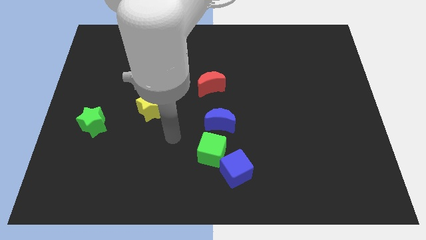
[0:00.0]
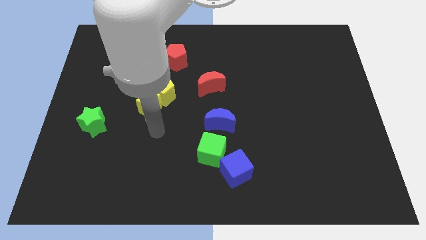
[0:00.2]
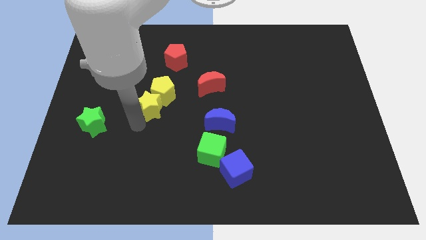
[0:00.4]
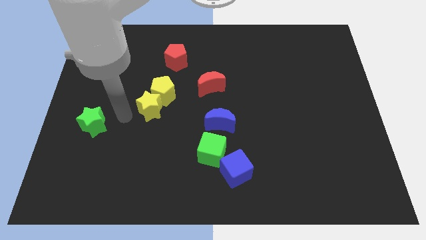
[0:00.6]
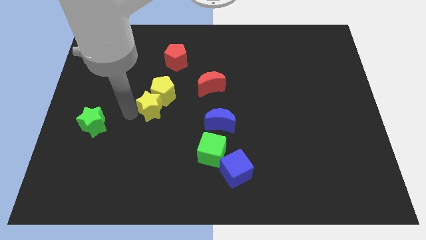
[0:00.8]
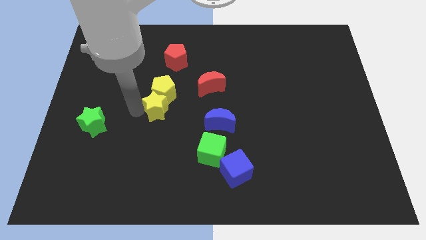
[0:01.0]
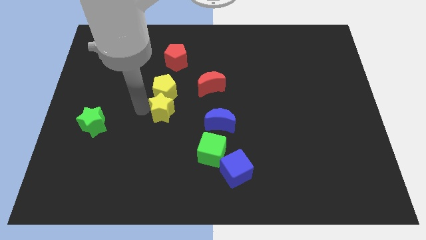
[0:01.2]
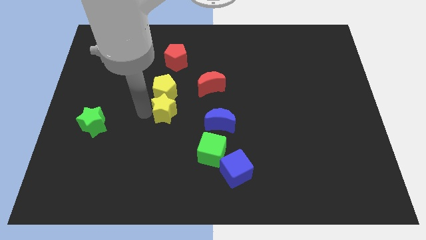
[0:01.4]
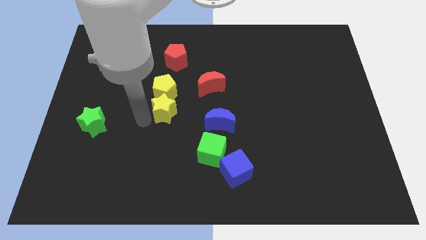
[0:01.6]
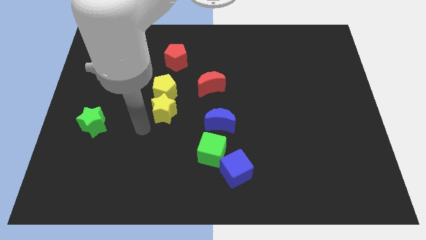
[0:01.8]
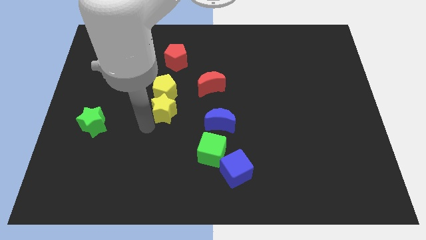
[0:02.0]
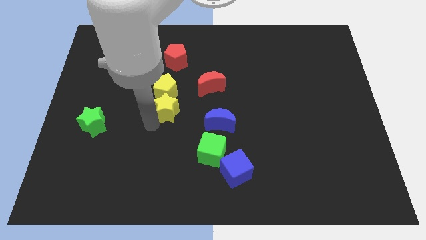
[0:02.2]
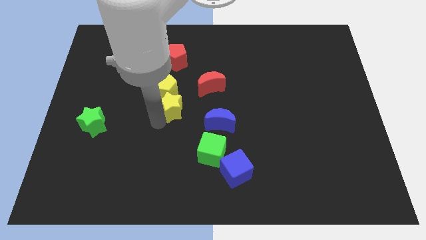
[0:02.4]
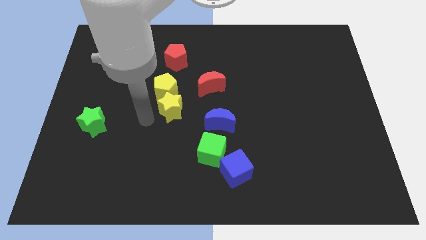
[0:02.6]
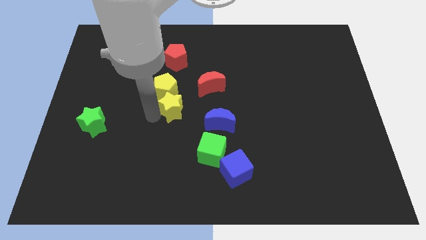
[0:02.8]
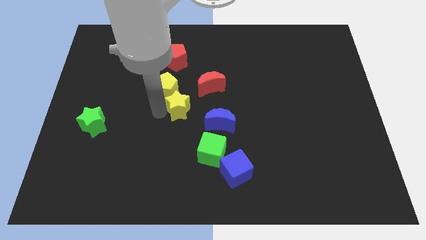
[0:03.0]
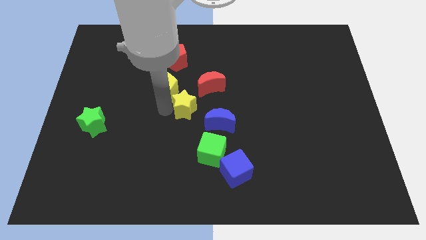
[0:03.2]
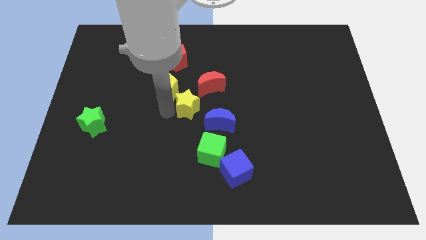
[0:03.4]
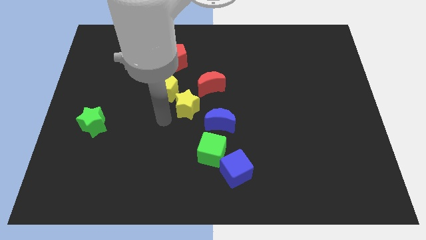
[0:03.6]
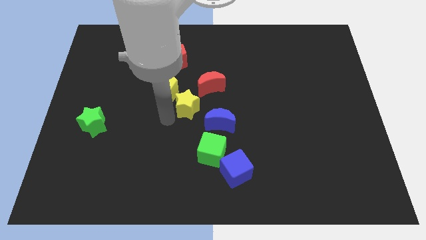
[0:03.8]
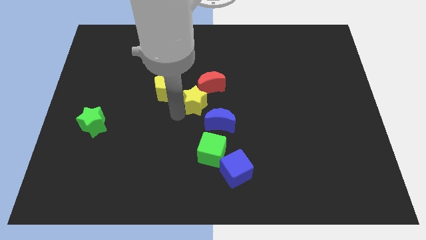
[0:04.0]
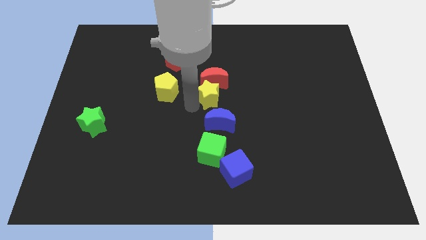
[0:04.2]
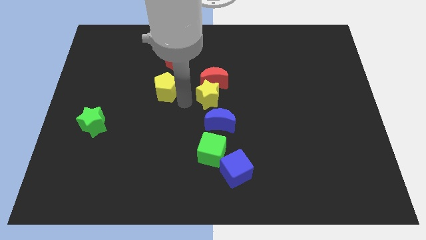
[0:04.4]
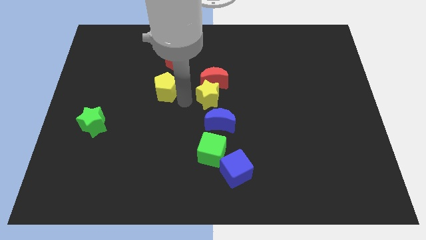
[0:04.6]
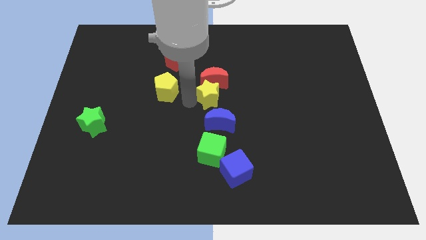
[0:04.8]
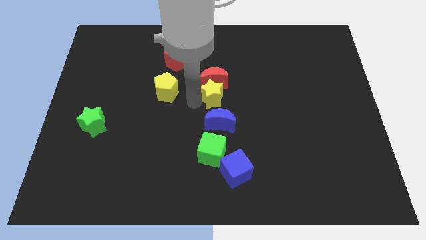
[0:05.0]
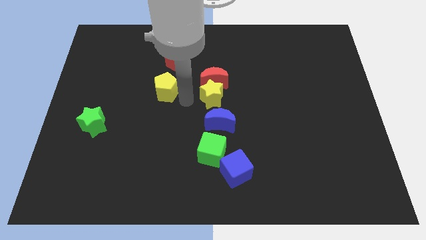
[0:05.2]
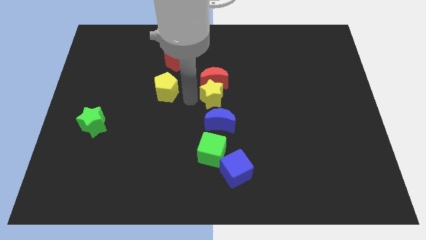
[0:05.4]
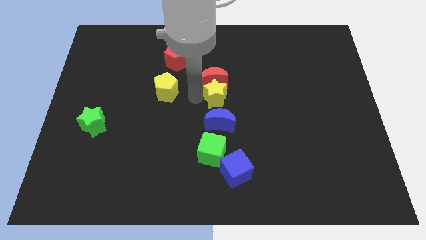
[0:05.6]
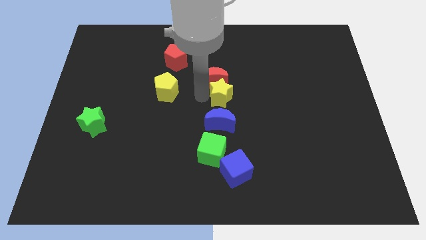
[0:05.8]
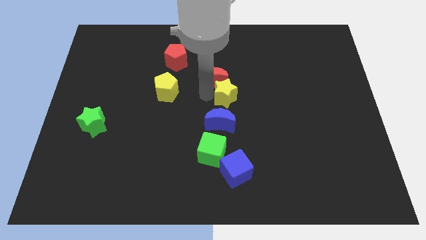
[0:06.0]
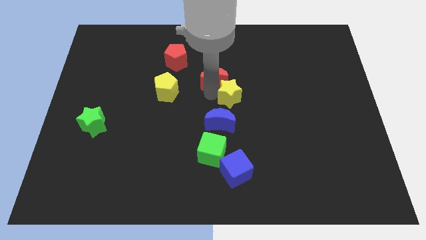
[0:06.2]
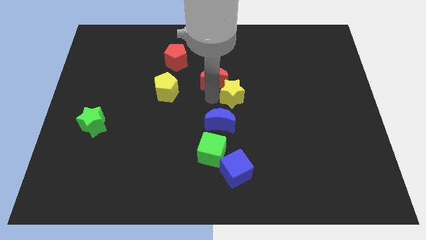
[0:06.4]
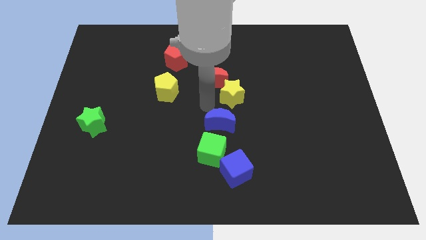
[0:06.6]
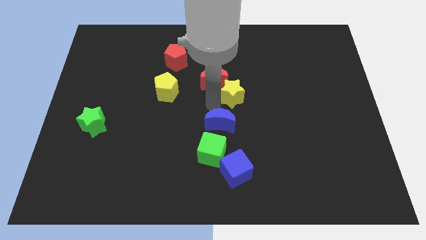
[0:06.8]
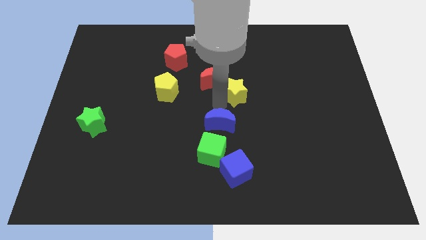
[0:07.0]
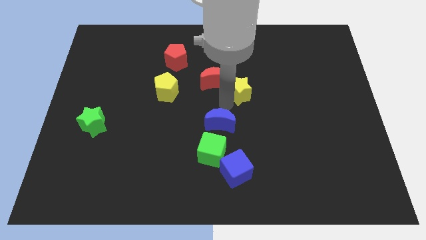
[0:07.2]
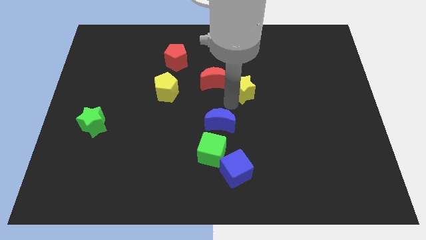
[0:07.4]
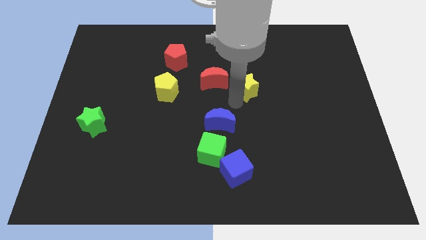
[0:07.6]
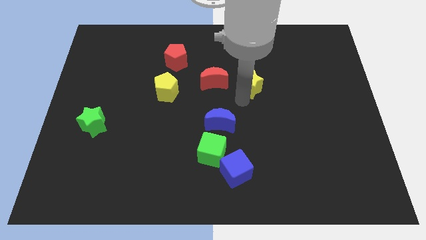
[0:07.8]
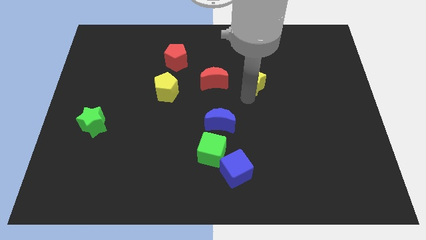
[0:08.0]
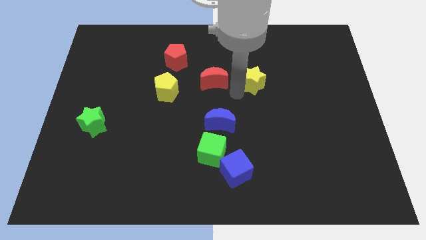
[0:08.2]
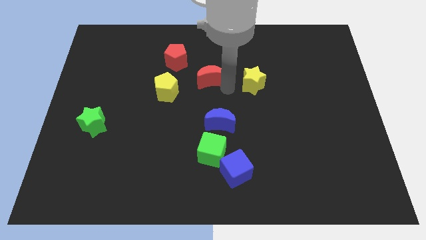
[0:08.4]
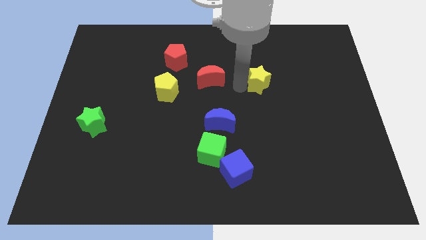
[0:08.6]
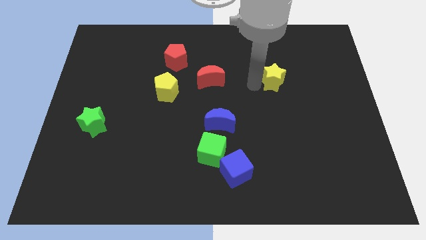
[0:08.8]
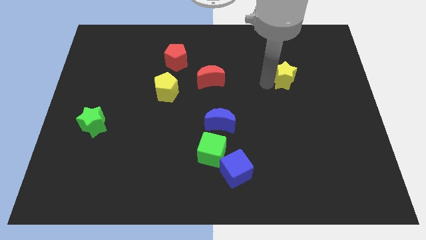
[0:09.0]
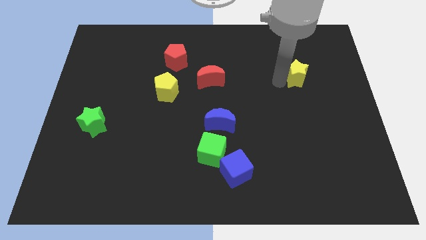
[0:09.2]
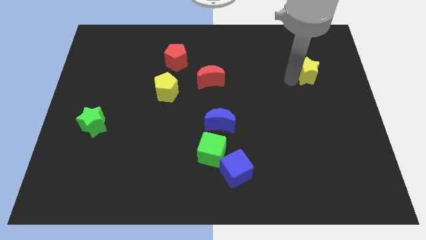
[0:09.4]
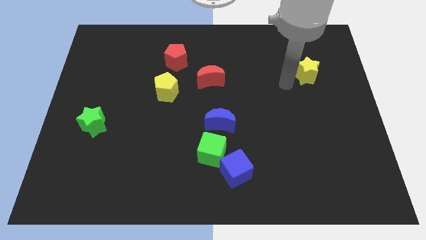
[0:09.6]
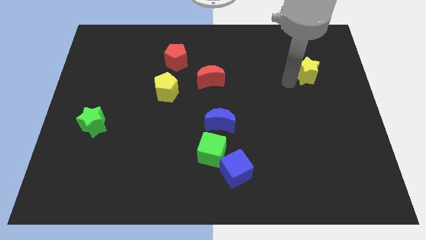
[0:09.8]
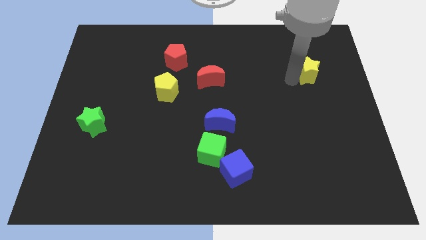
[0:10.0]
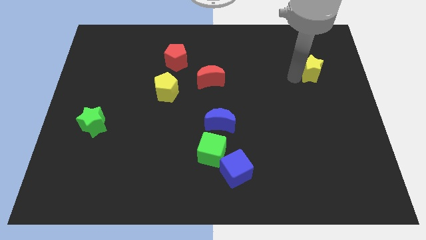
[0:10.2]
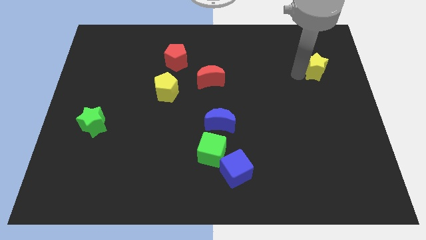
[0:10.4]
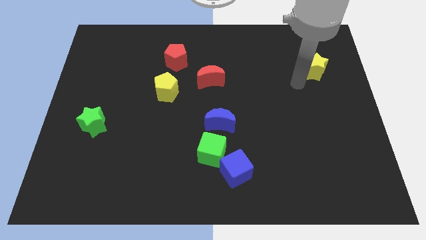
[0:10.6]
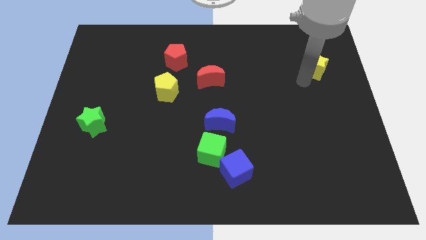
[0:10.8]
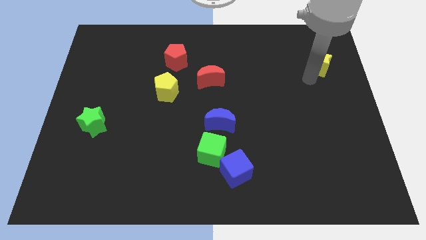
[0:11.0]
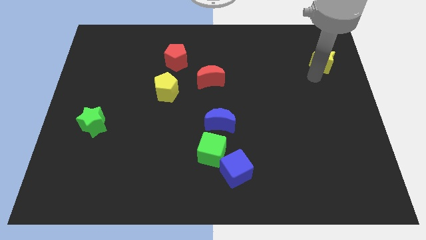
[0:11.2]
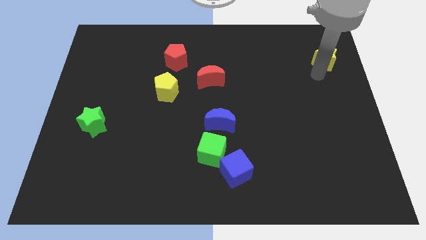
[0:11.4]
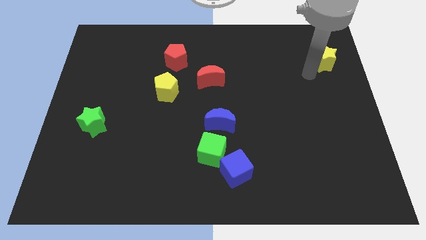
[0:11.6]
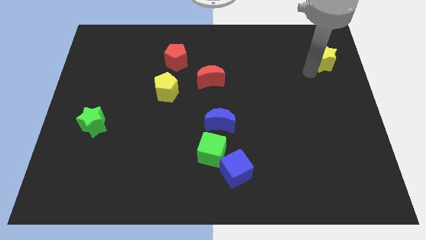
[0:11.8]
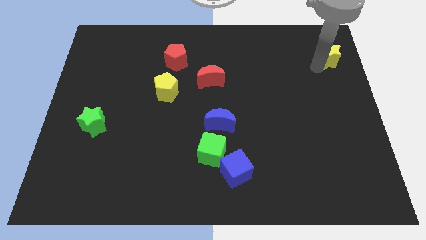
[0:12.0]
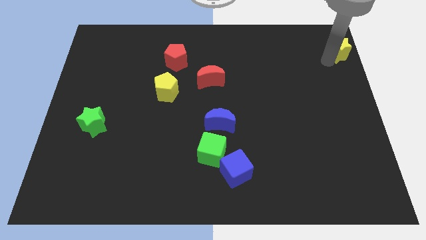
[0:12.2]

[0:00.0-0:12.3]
push the yellow star to the top right corner

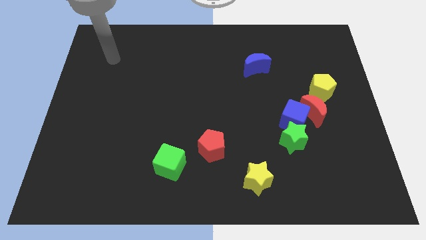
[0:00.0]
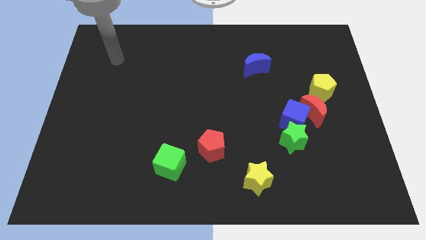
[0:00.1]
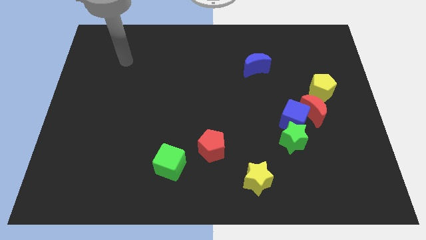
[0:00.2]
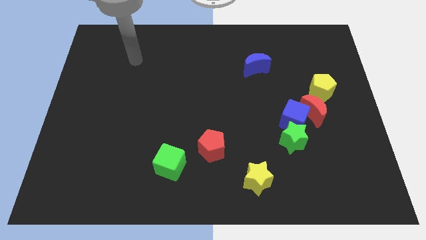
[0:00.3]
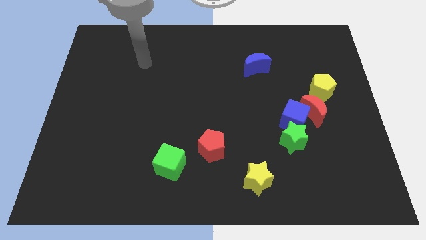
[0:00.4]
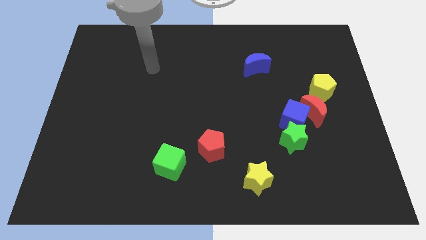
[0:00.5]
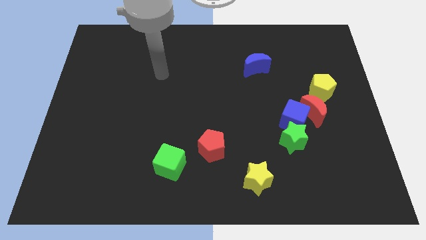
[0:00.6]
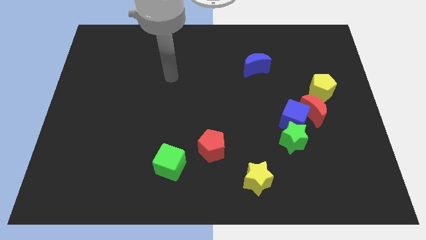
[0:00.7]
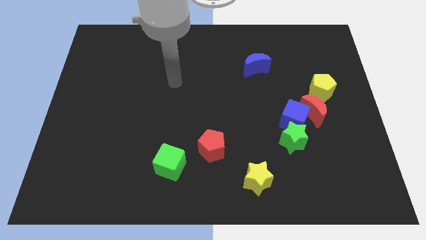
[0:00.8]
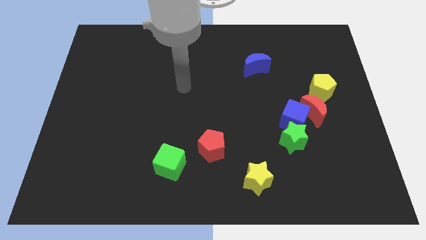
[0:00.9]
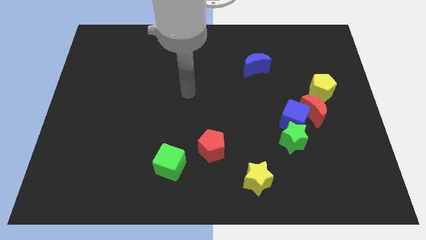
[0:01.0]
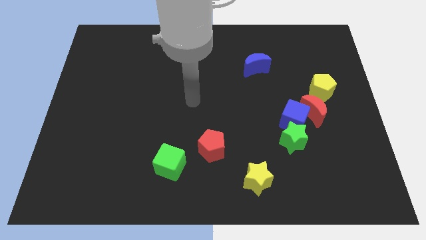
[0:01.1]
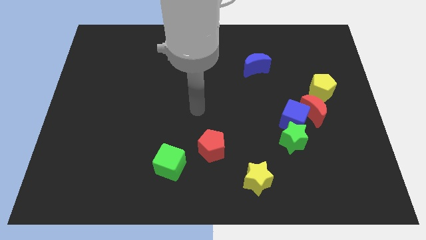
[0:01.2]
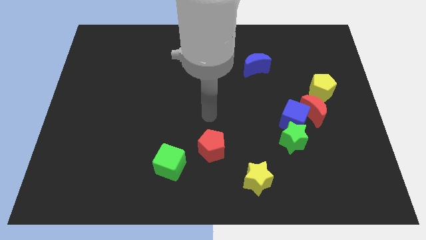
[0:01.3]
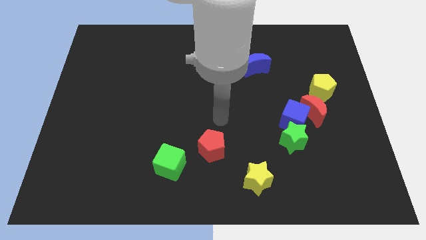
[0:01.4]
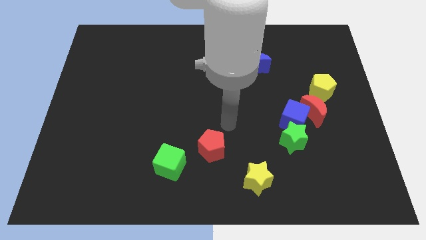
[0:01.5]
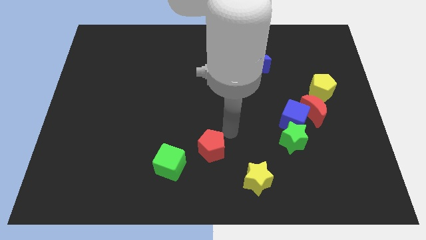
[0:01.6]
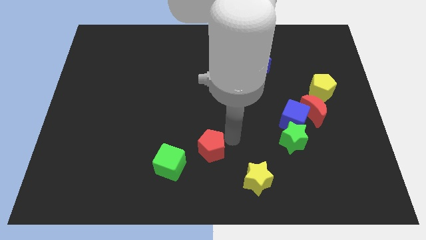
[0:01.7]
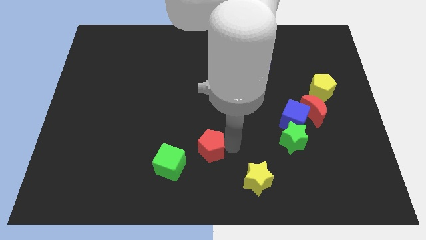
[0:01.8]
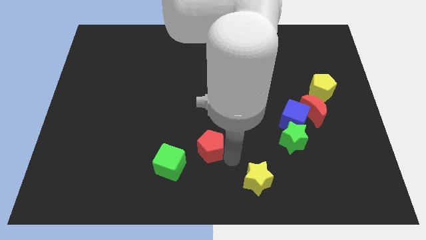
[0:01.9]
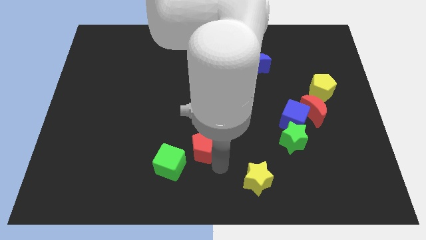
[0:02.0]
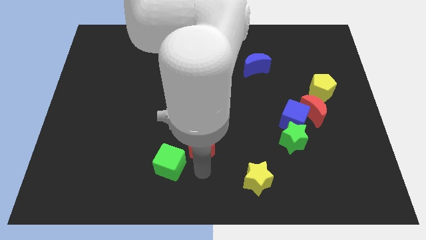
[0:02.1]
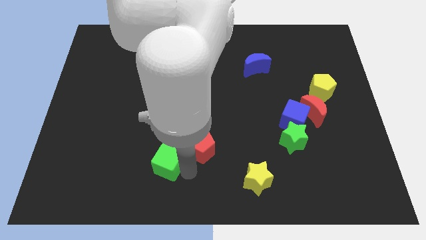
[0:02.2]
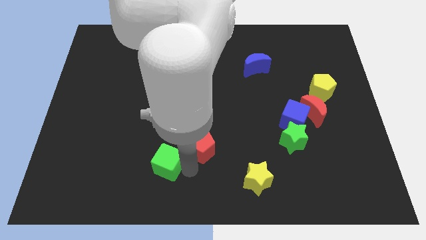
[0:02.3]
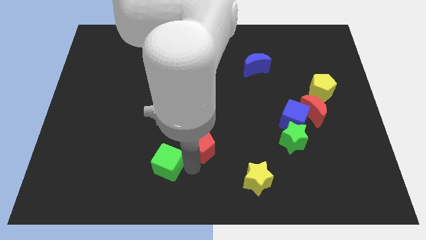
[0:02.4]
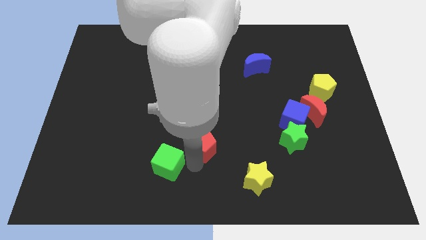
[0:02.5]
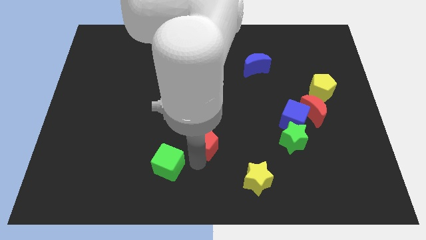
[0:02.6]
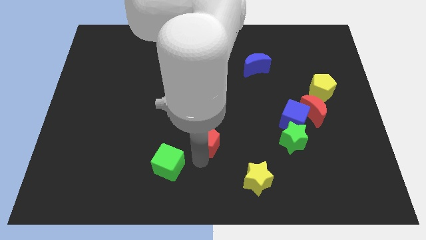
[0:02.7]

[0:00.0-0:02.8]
move the red pentagon to the middle of the board
